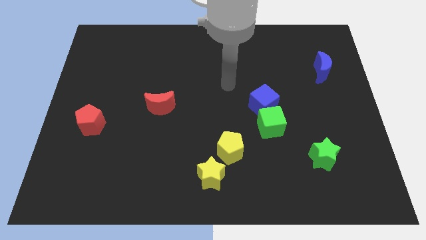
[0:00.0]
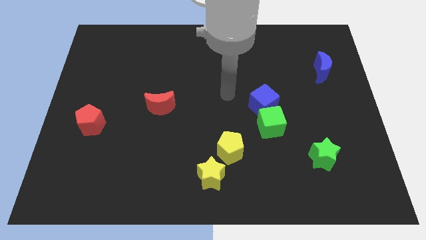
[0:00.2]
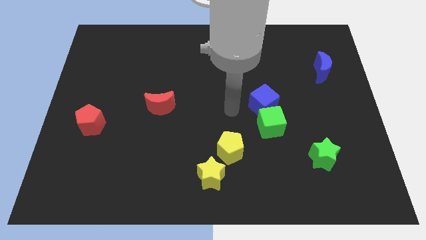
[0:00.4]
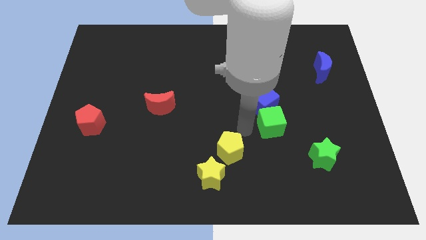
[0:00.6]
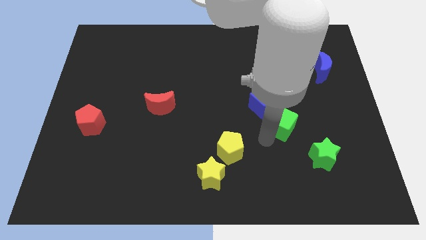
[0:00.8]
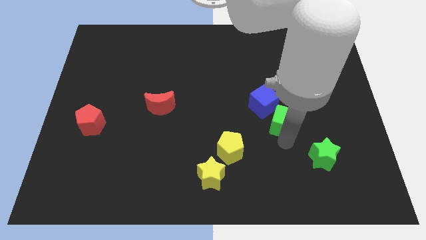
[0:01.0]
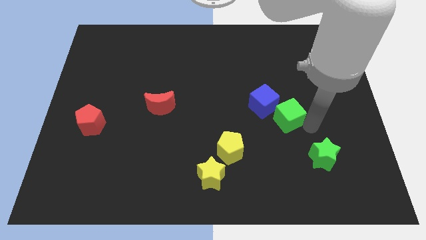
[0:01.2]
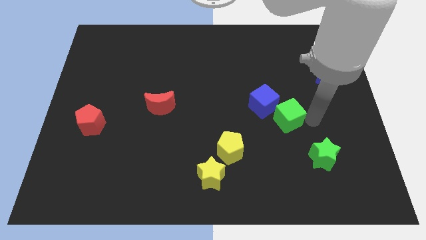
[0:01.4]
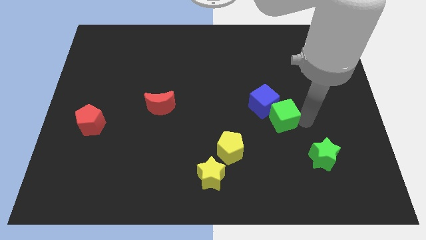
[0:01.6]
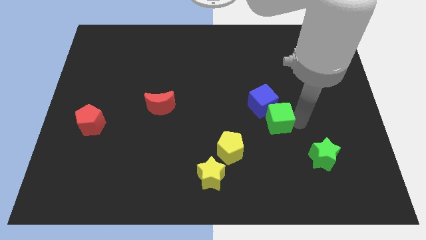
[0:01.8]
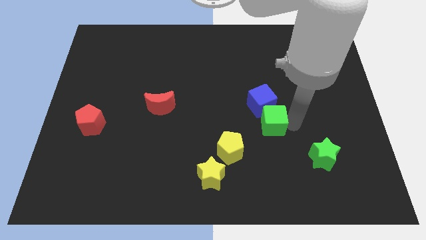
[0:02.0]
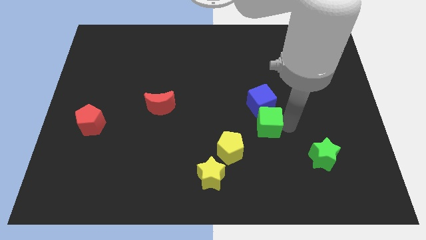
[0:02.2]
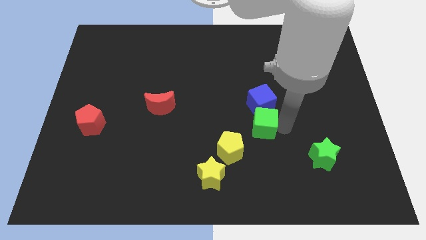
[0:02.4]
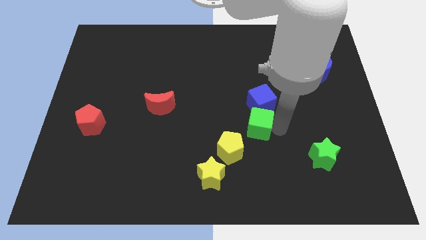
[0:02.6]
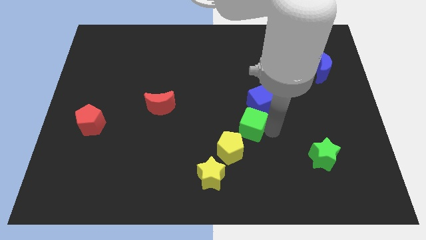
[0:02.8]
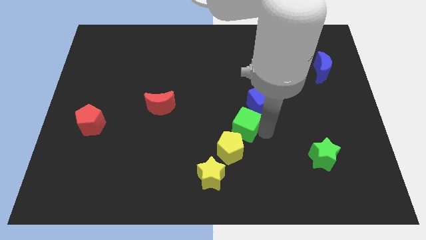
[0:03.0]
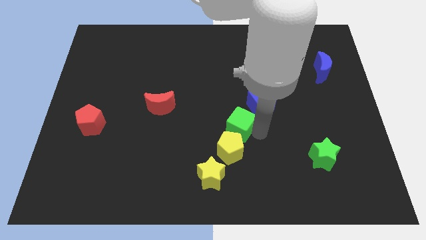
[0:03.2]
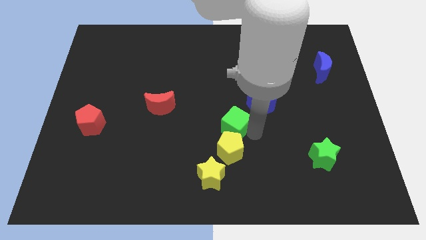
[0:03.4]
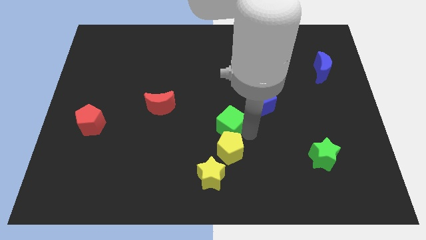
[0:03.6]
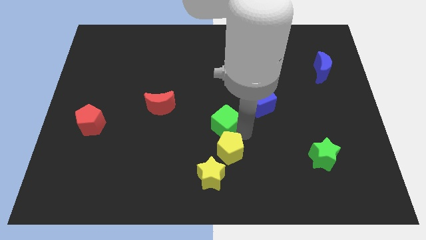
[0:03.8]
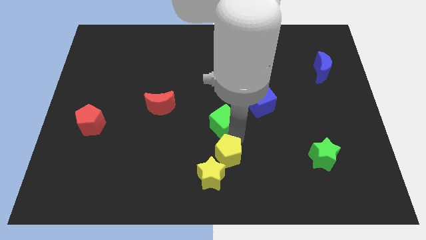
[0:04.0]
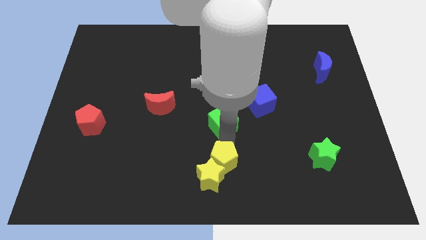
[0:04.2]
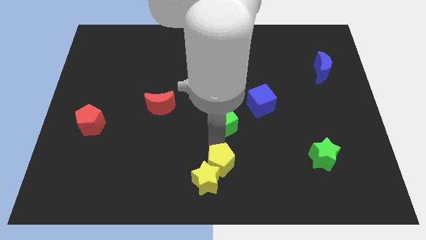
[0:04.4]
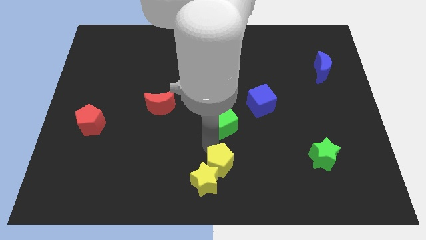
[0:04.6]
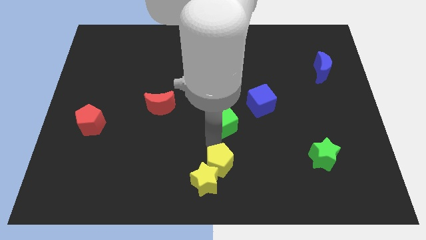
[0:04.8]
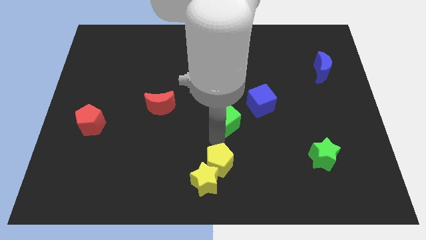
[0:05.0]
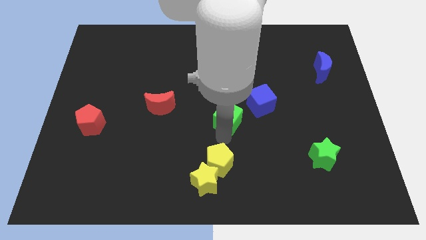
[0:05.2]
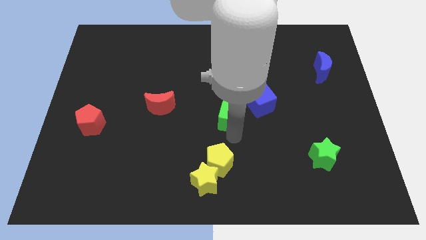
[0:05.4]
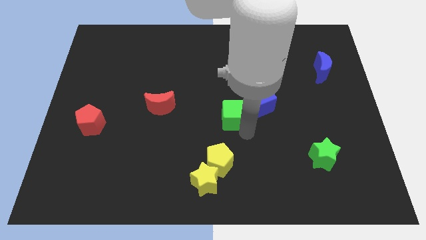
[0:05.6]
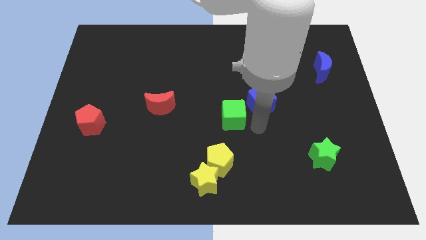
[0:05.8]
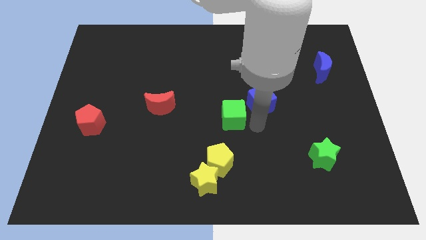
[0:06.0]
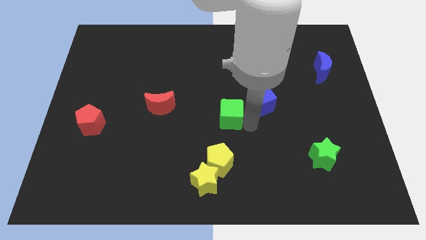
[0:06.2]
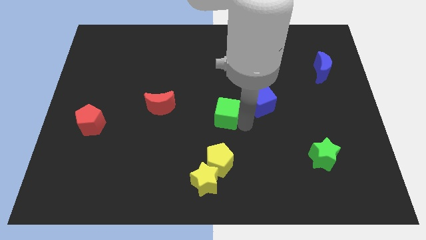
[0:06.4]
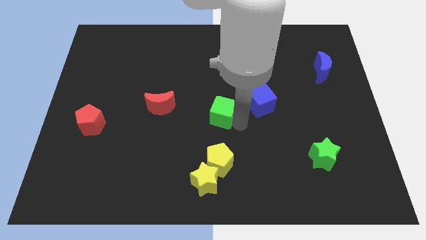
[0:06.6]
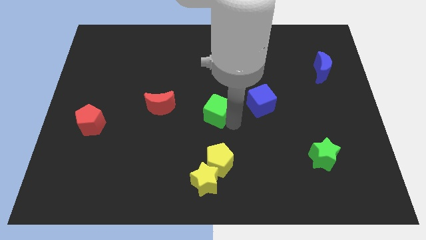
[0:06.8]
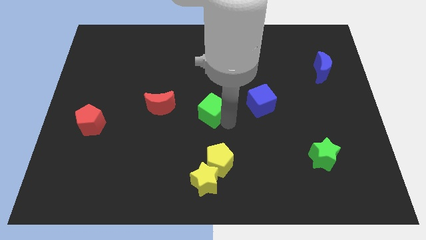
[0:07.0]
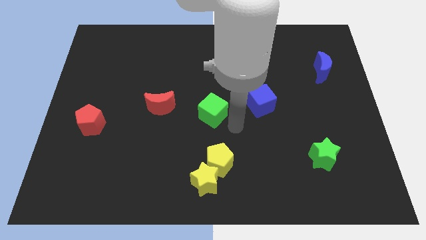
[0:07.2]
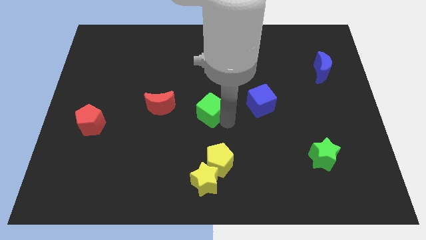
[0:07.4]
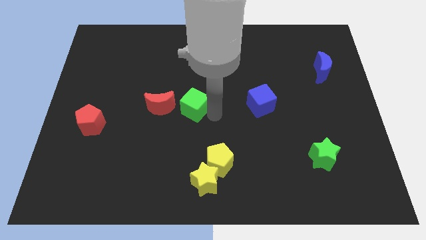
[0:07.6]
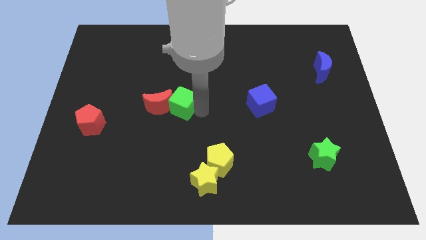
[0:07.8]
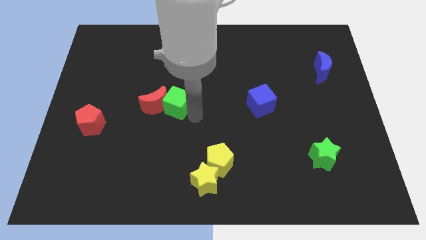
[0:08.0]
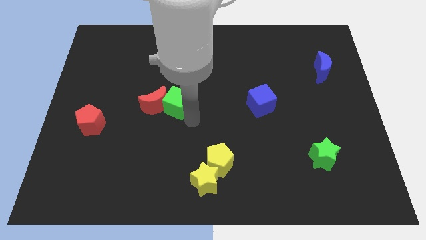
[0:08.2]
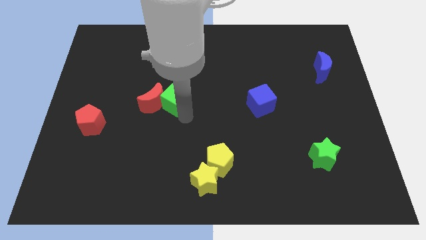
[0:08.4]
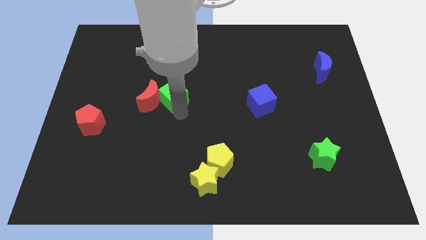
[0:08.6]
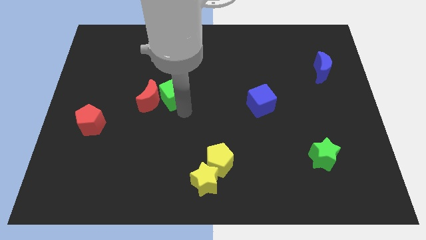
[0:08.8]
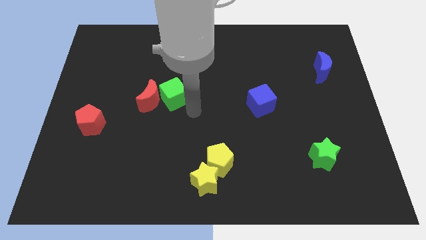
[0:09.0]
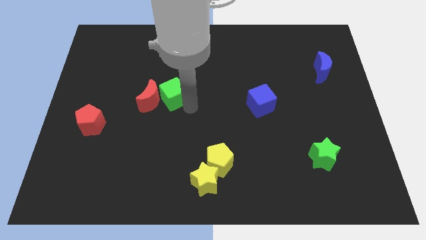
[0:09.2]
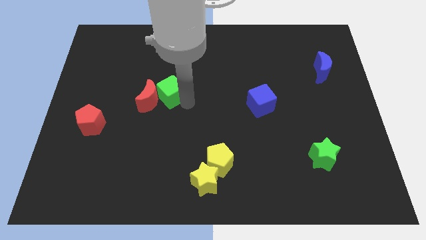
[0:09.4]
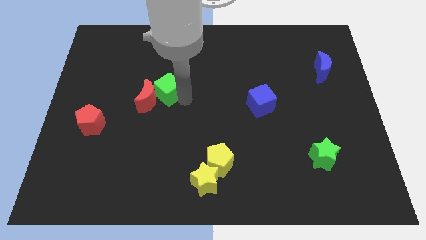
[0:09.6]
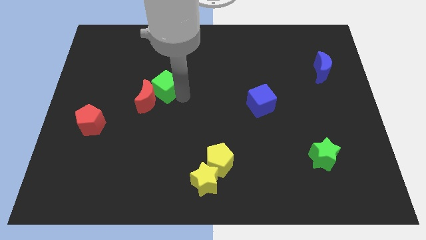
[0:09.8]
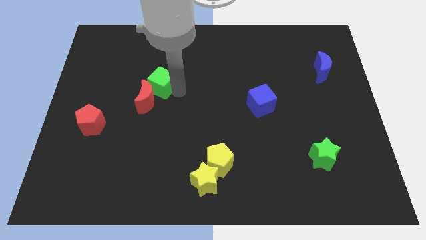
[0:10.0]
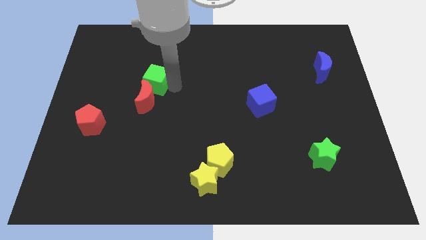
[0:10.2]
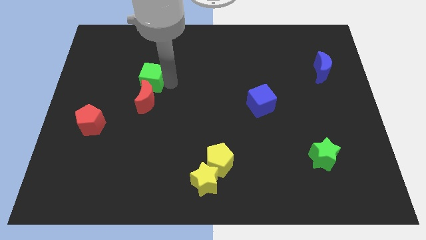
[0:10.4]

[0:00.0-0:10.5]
slide the green cube to the top left side of the red moon

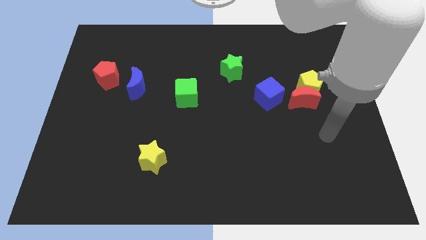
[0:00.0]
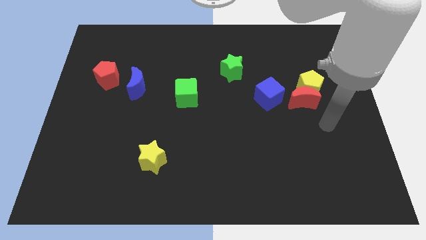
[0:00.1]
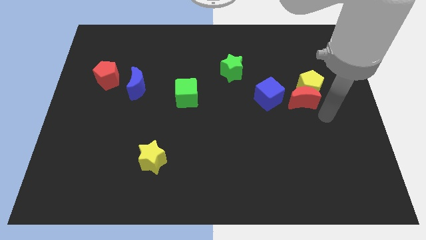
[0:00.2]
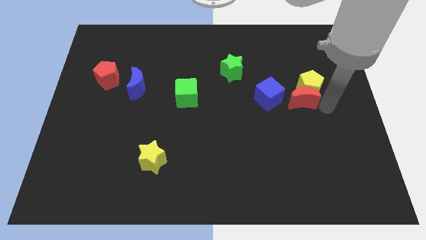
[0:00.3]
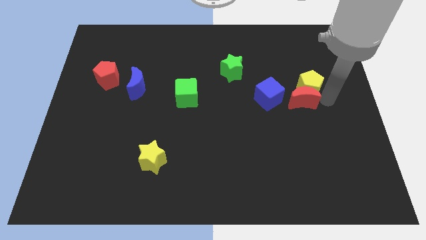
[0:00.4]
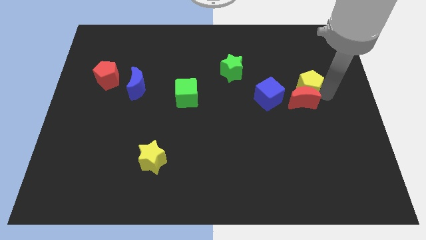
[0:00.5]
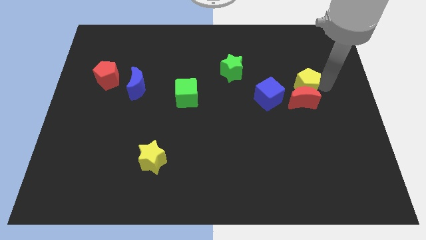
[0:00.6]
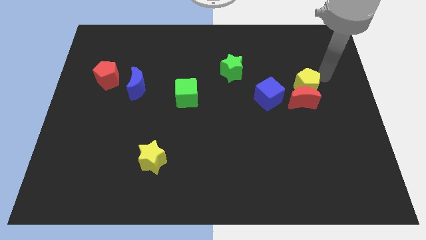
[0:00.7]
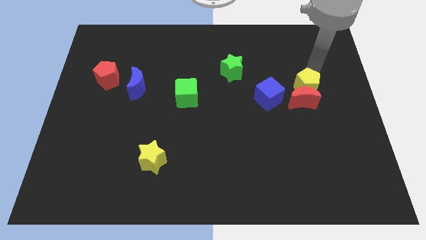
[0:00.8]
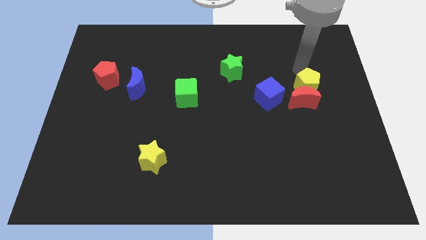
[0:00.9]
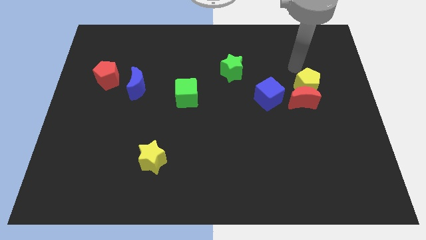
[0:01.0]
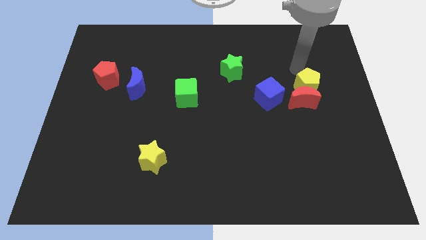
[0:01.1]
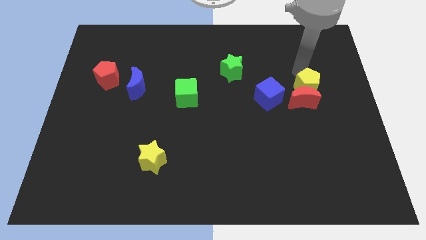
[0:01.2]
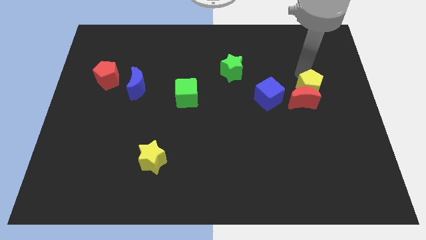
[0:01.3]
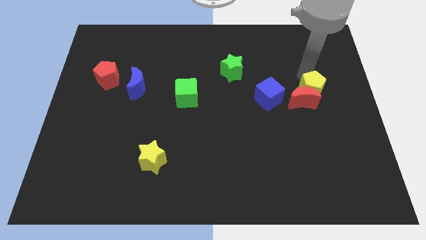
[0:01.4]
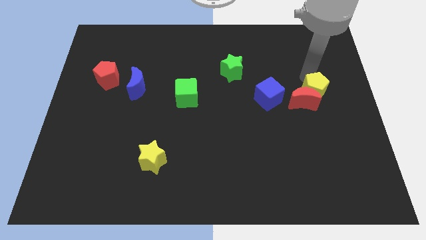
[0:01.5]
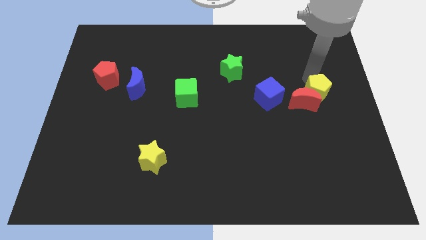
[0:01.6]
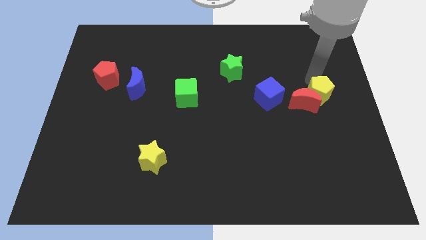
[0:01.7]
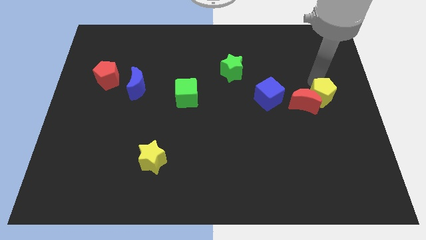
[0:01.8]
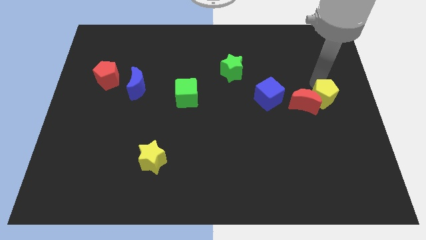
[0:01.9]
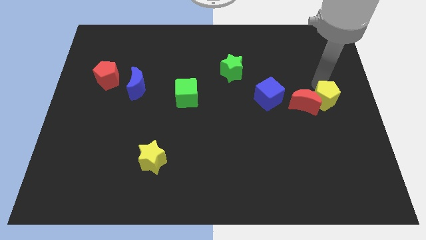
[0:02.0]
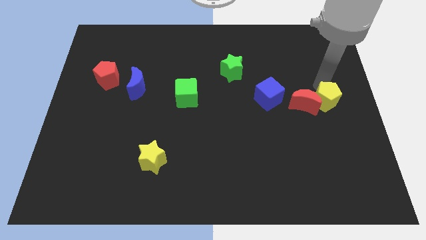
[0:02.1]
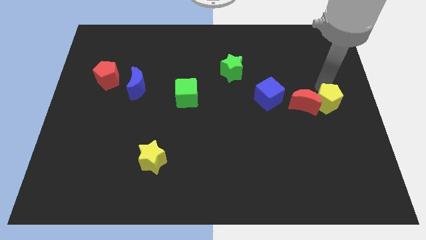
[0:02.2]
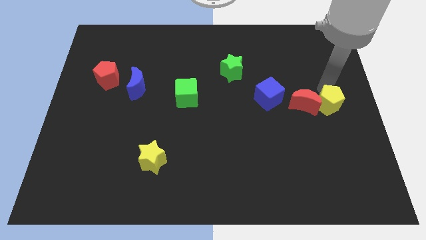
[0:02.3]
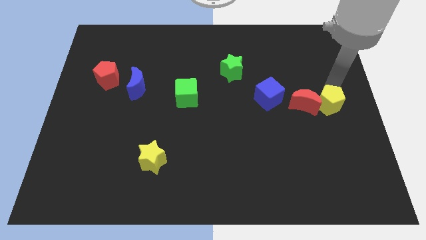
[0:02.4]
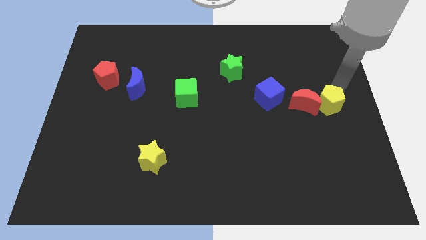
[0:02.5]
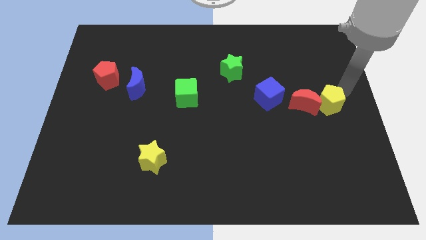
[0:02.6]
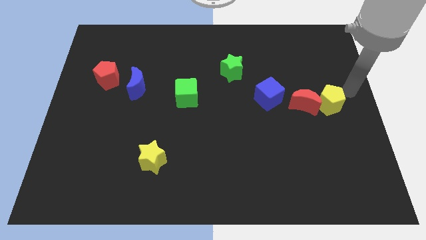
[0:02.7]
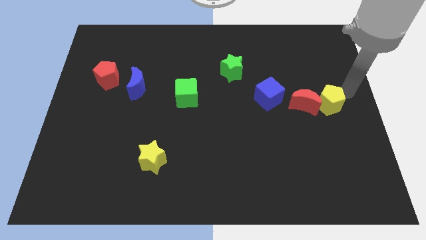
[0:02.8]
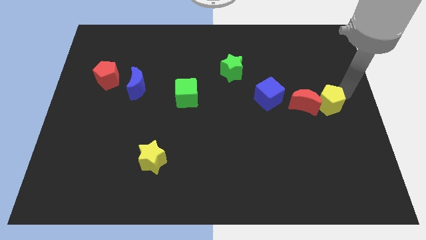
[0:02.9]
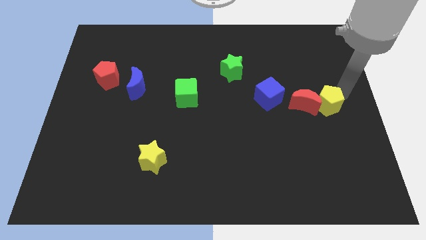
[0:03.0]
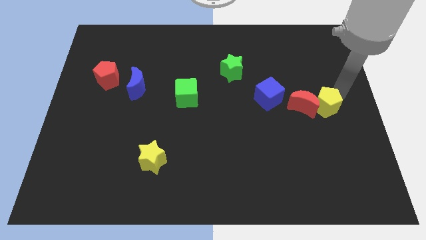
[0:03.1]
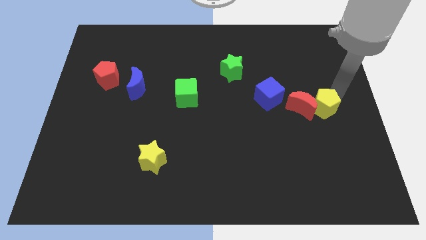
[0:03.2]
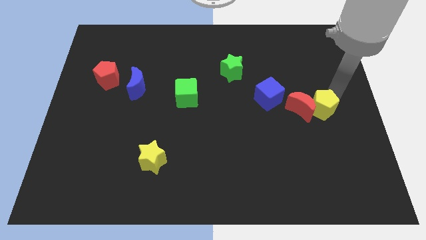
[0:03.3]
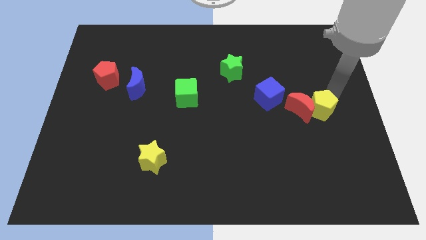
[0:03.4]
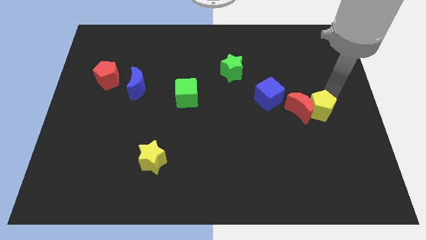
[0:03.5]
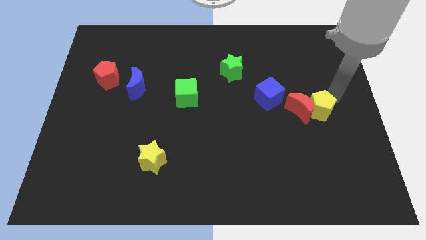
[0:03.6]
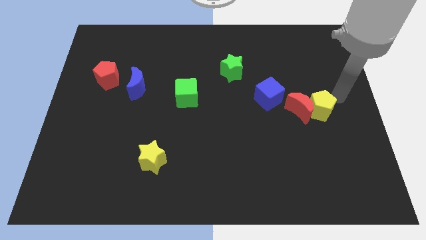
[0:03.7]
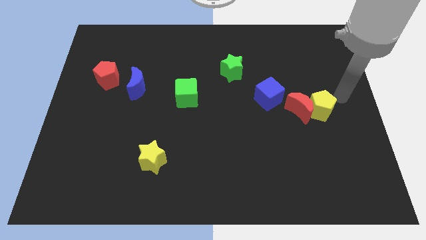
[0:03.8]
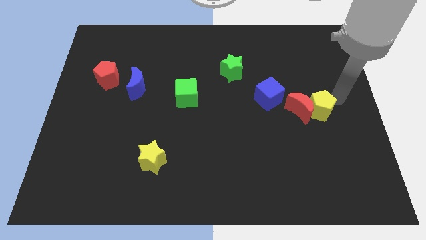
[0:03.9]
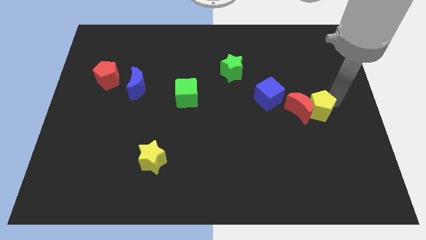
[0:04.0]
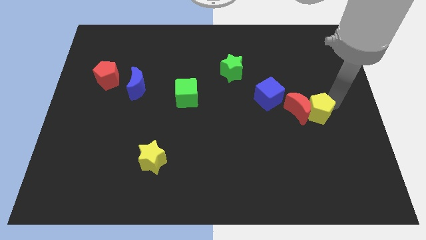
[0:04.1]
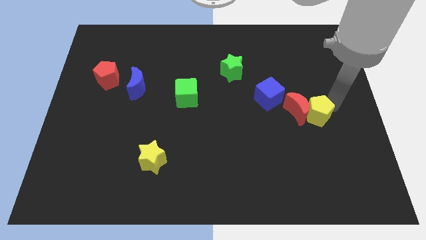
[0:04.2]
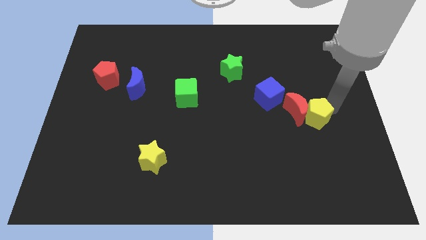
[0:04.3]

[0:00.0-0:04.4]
put the yellow pentagon diagonally down and to the right of the blue cube
